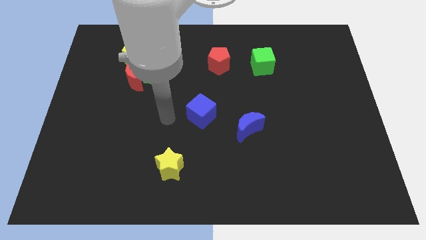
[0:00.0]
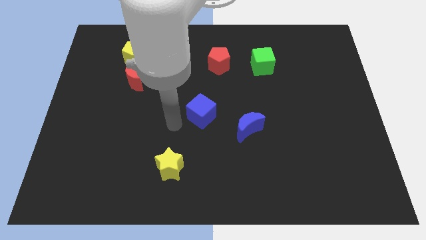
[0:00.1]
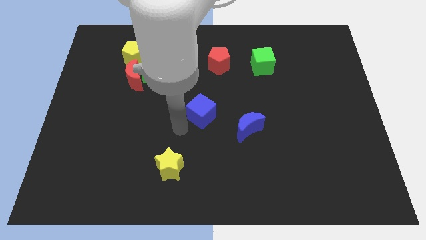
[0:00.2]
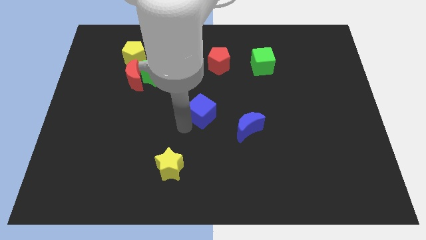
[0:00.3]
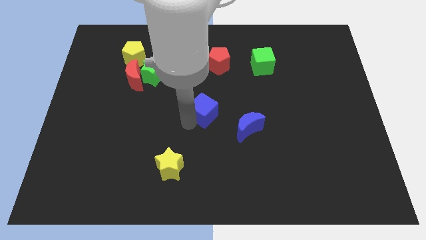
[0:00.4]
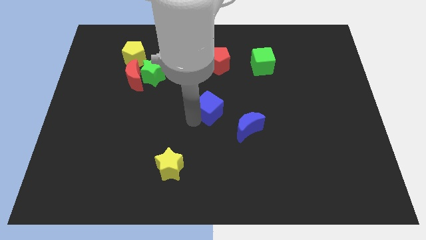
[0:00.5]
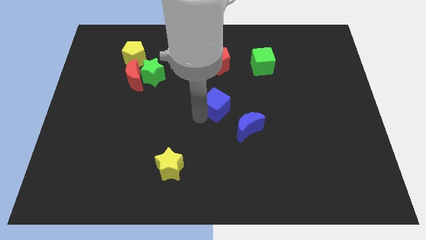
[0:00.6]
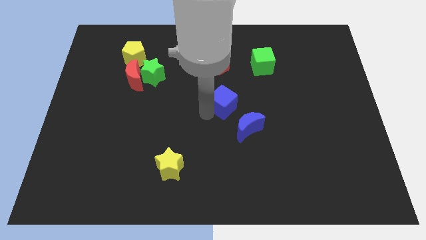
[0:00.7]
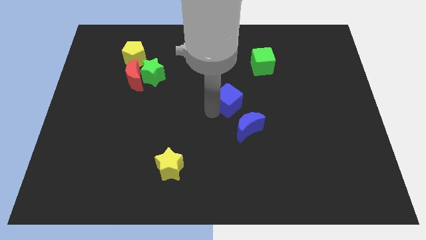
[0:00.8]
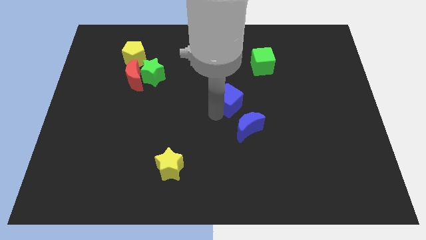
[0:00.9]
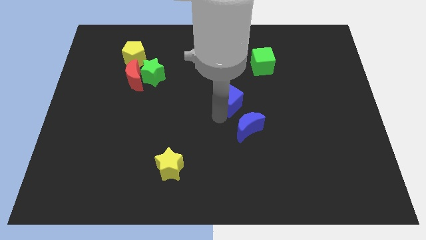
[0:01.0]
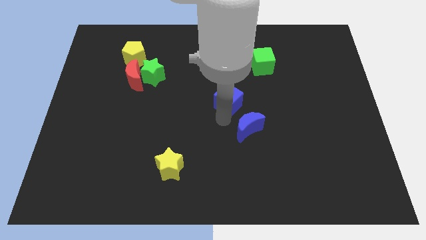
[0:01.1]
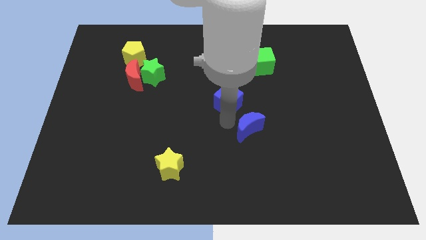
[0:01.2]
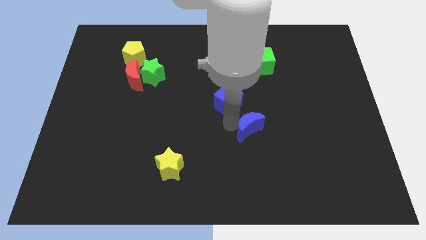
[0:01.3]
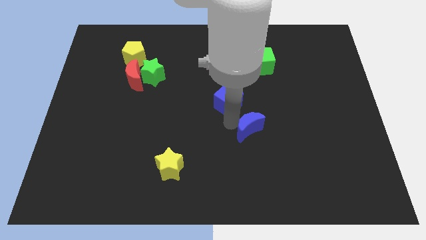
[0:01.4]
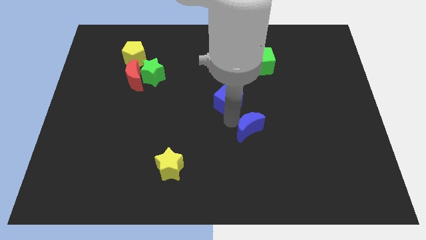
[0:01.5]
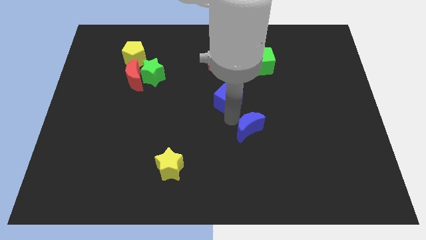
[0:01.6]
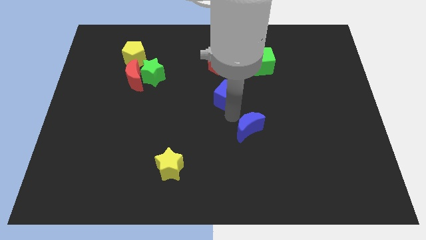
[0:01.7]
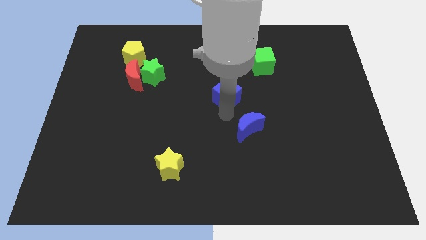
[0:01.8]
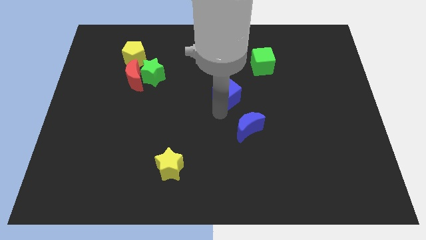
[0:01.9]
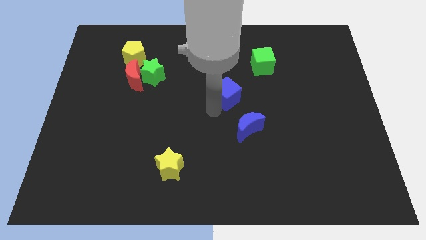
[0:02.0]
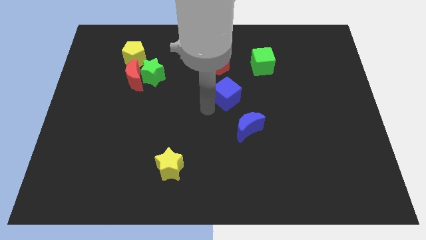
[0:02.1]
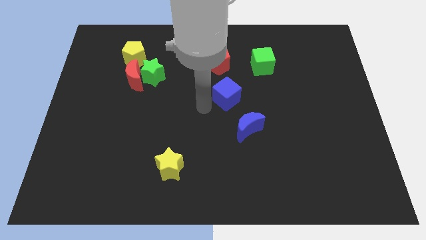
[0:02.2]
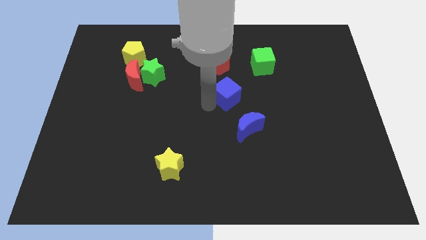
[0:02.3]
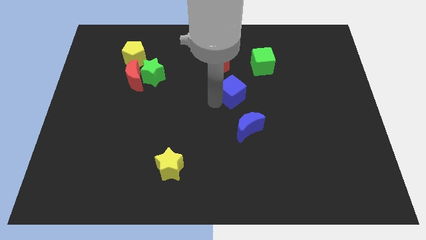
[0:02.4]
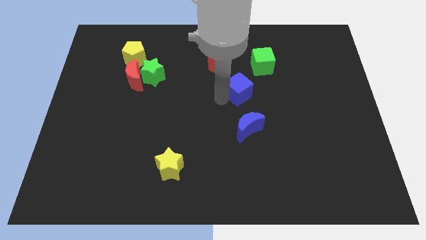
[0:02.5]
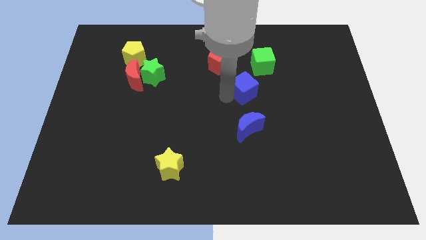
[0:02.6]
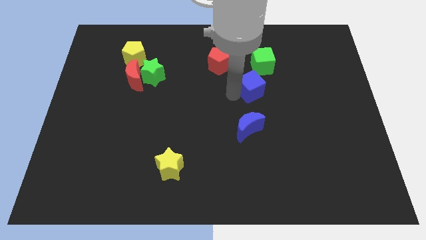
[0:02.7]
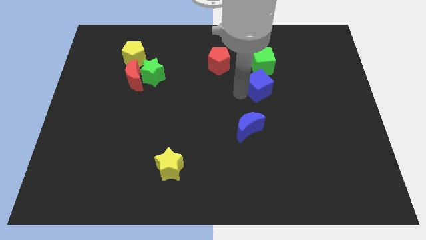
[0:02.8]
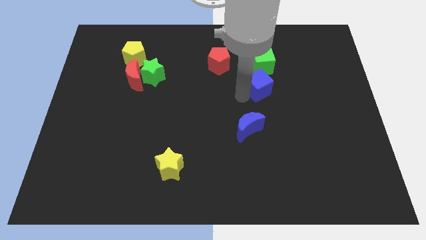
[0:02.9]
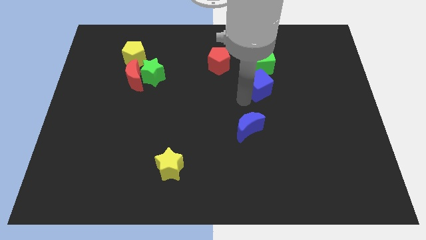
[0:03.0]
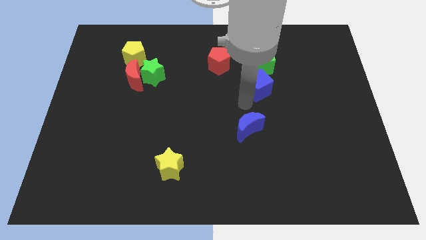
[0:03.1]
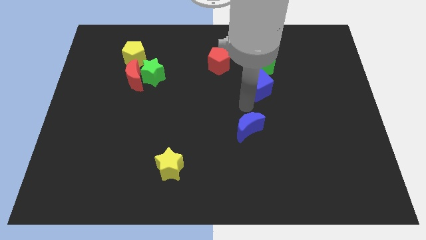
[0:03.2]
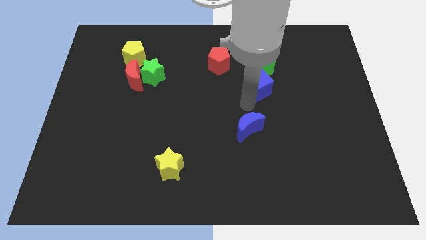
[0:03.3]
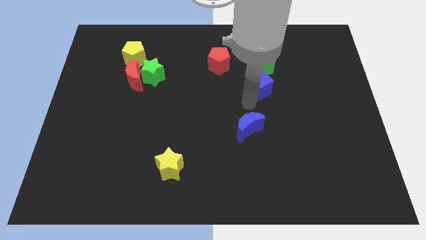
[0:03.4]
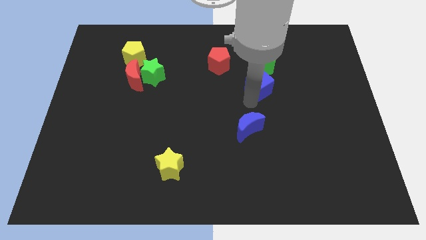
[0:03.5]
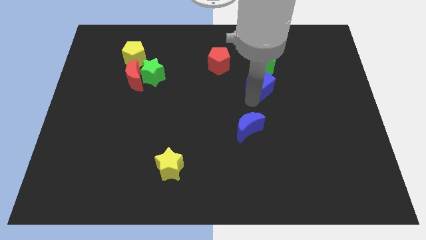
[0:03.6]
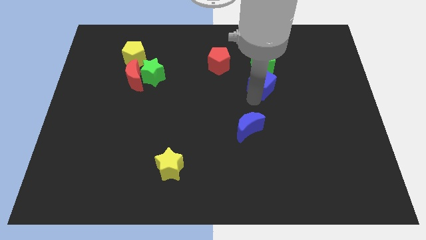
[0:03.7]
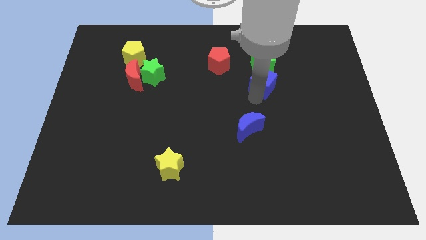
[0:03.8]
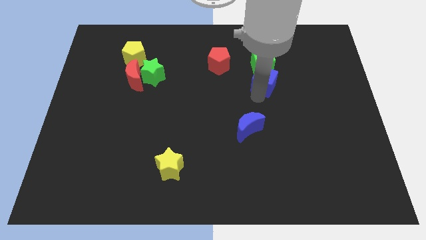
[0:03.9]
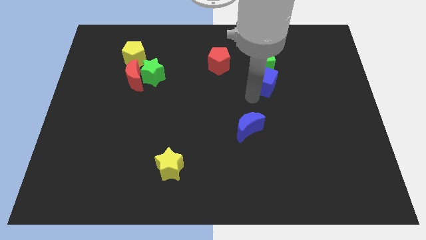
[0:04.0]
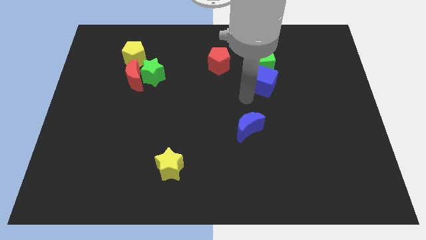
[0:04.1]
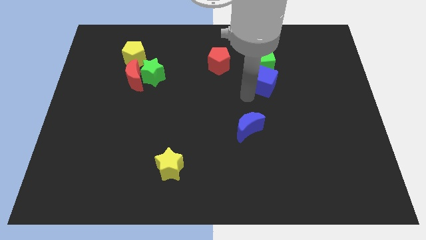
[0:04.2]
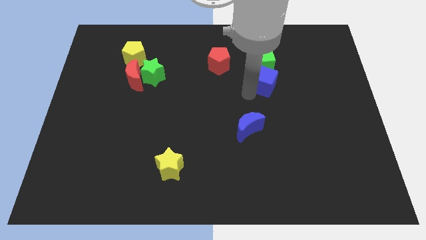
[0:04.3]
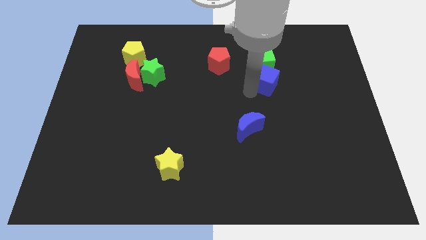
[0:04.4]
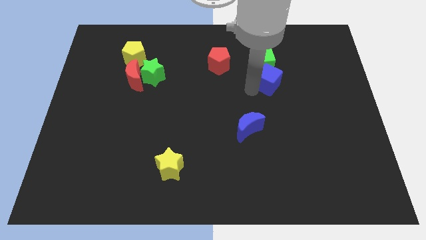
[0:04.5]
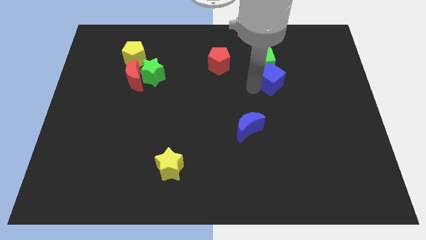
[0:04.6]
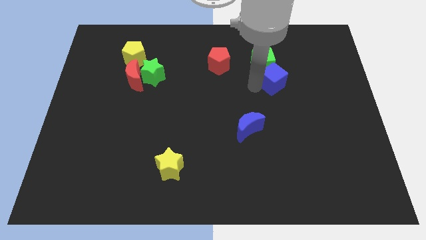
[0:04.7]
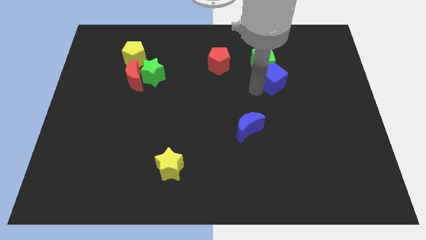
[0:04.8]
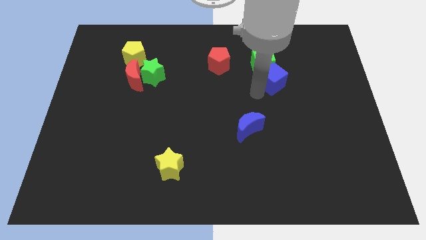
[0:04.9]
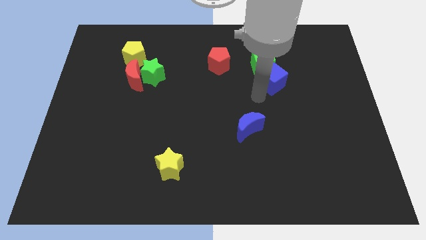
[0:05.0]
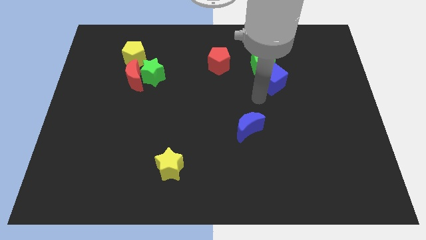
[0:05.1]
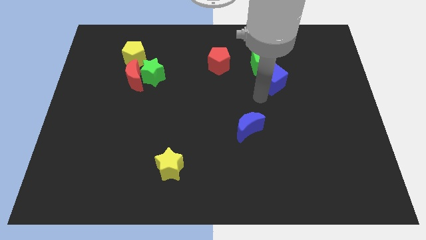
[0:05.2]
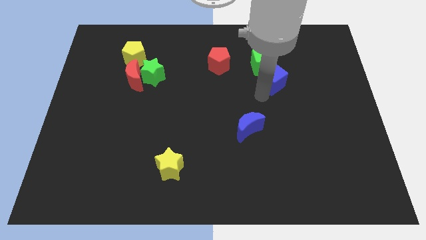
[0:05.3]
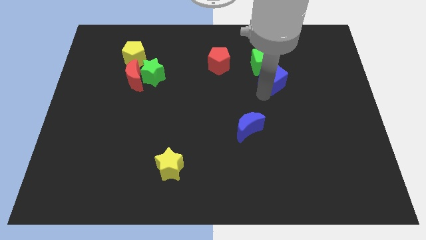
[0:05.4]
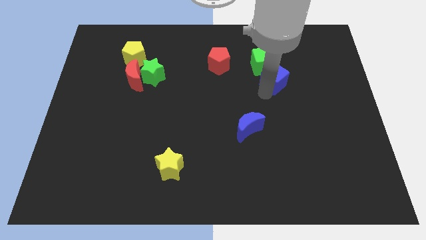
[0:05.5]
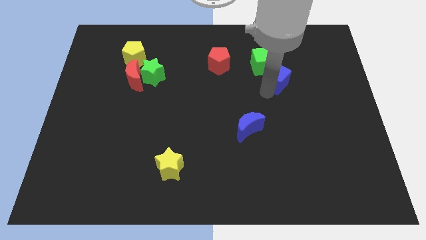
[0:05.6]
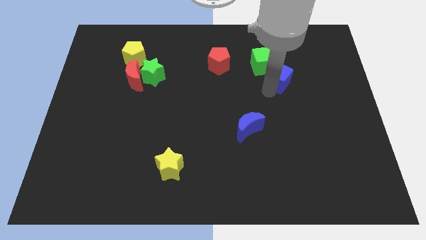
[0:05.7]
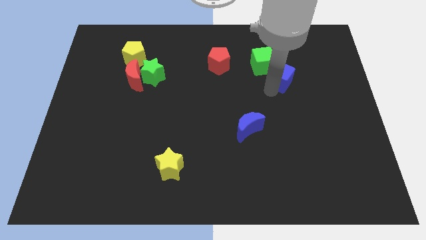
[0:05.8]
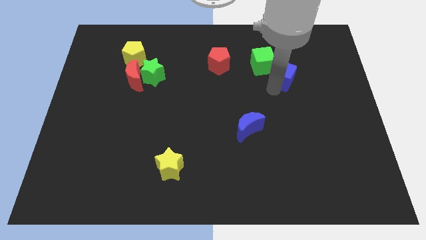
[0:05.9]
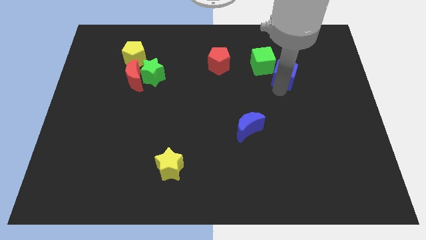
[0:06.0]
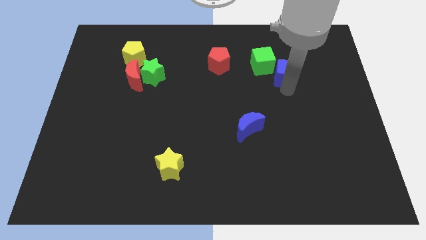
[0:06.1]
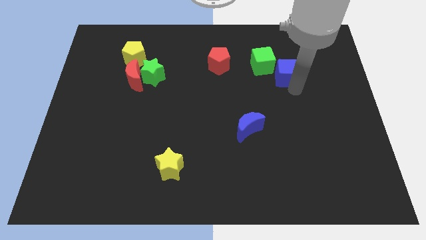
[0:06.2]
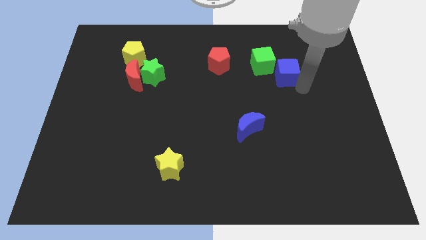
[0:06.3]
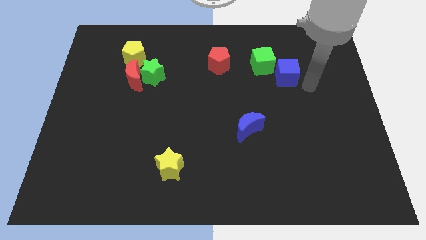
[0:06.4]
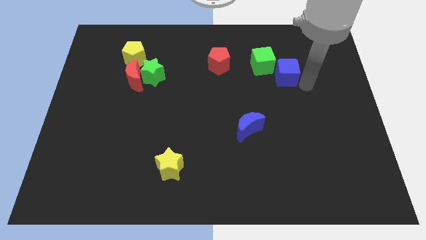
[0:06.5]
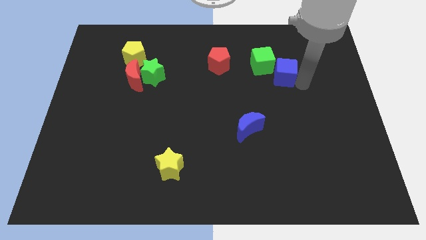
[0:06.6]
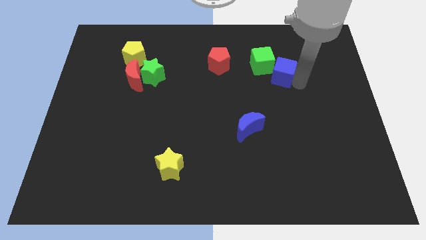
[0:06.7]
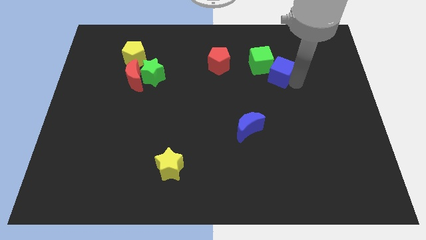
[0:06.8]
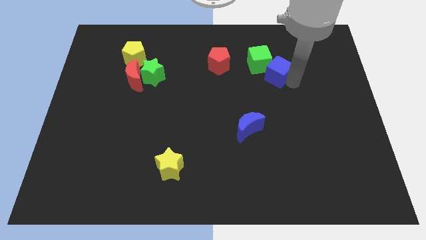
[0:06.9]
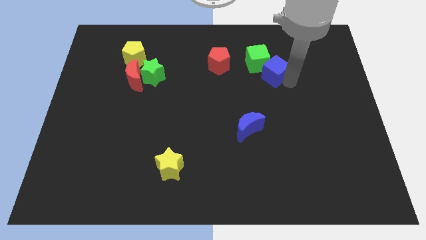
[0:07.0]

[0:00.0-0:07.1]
push the blue cube to the right of the red pentagon
